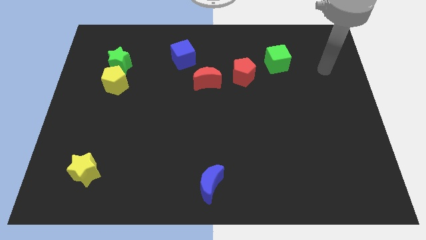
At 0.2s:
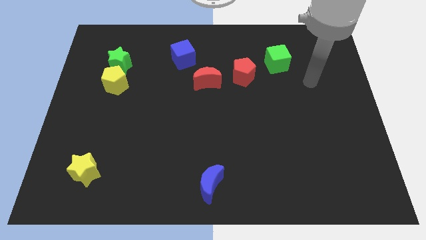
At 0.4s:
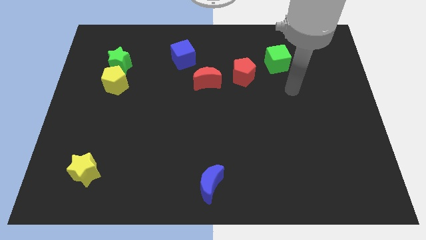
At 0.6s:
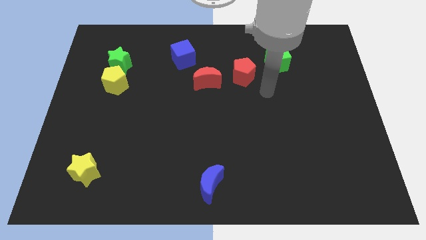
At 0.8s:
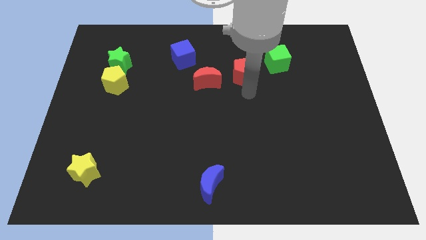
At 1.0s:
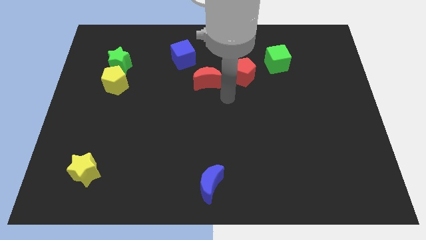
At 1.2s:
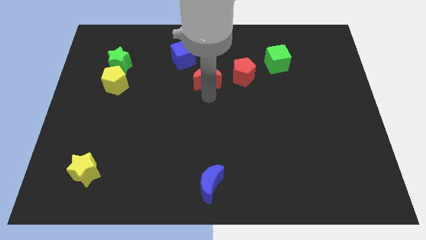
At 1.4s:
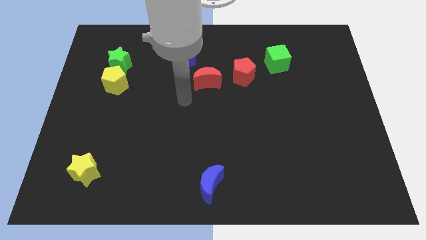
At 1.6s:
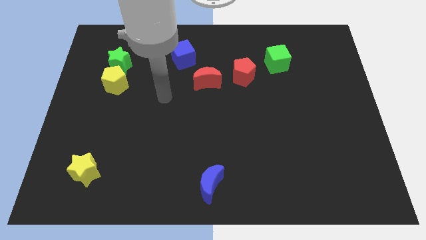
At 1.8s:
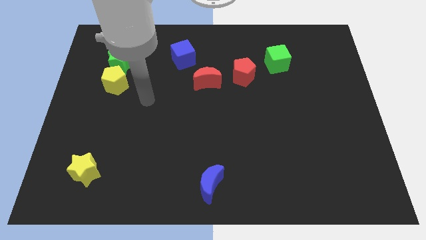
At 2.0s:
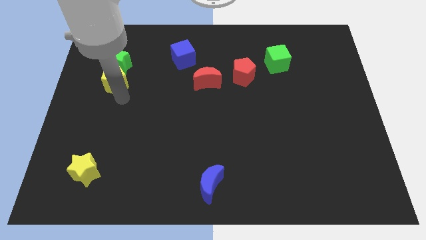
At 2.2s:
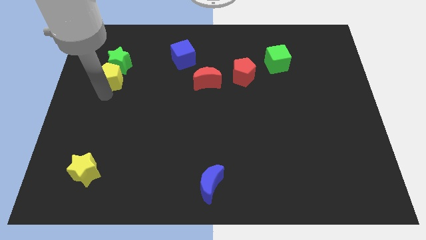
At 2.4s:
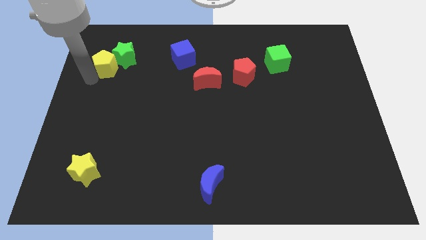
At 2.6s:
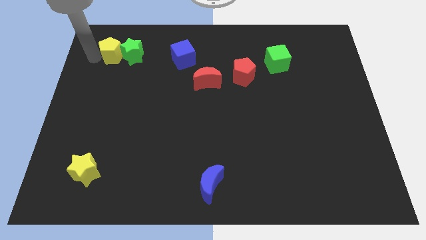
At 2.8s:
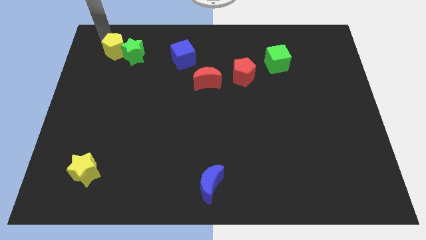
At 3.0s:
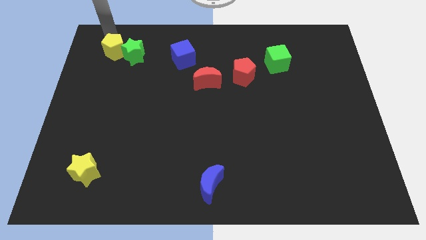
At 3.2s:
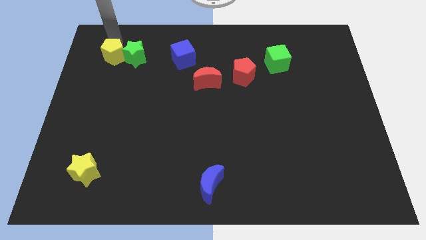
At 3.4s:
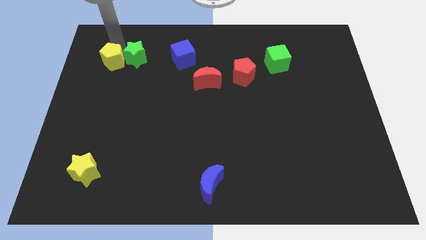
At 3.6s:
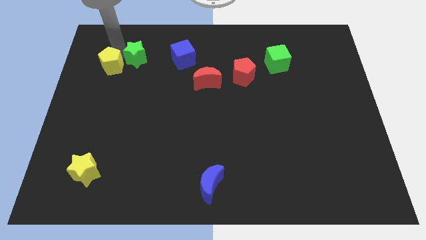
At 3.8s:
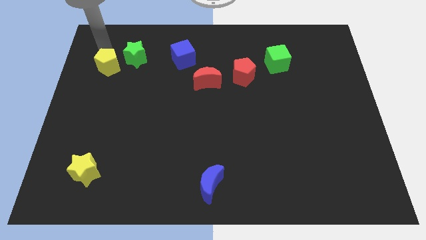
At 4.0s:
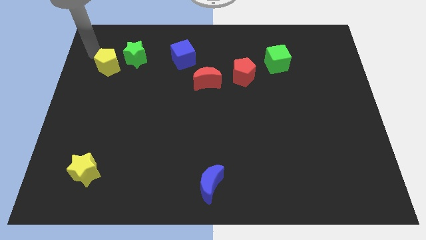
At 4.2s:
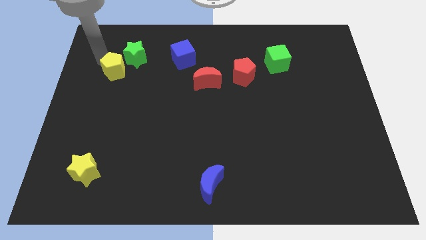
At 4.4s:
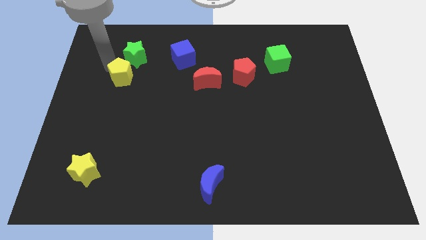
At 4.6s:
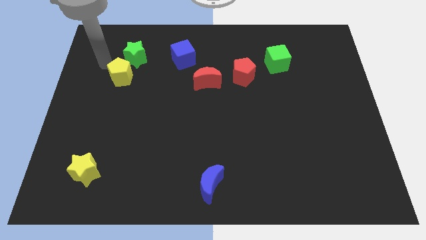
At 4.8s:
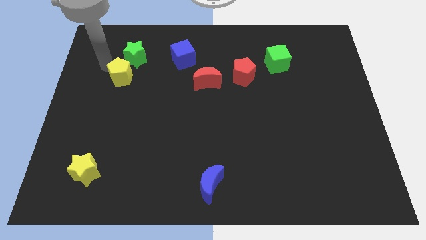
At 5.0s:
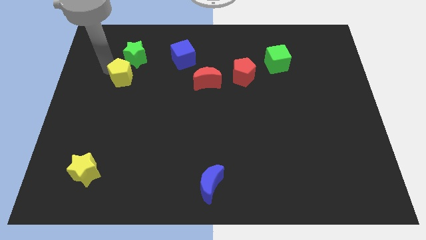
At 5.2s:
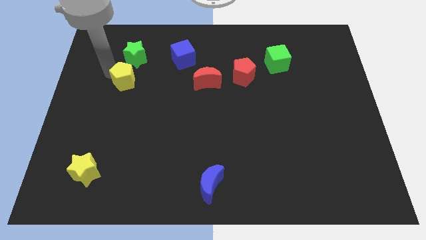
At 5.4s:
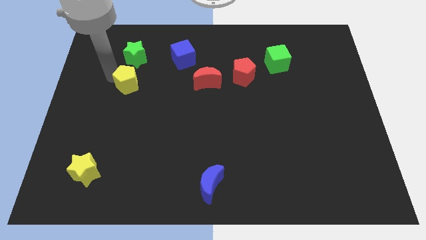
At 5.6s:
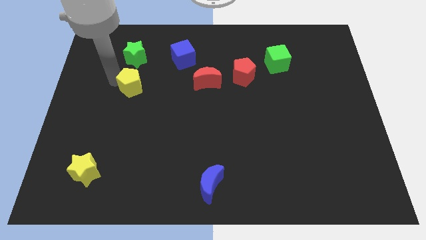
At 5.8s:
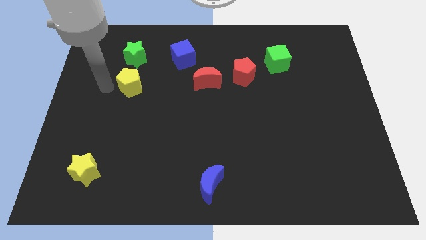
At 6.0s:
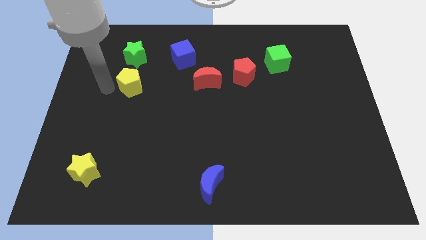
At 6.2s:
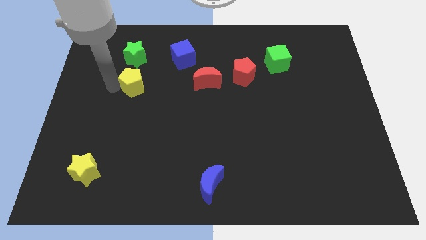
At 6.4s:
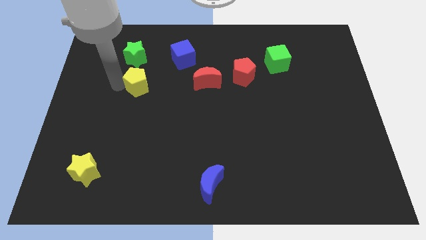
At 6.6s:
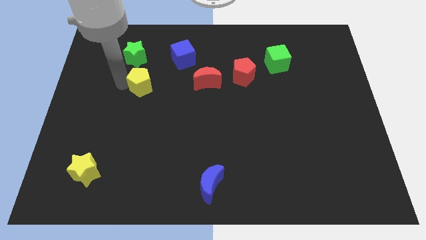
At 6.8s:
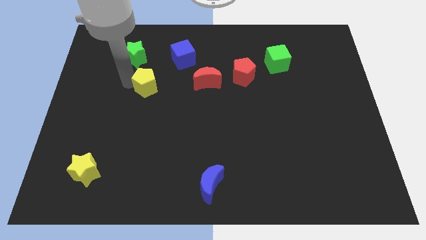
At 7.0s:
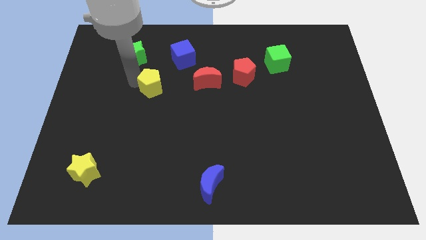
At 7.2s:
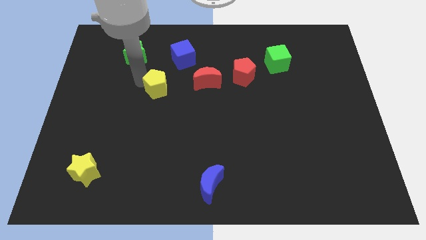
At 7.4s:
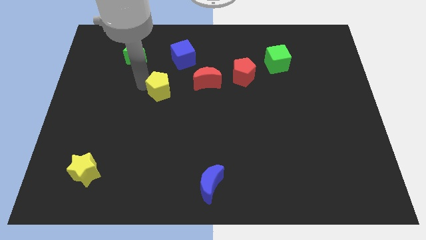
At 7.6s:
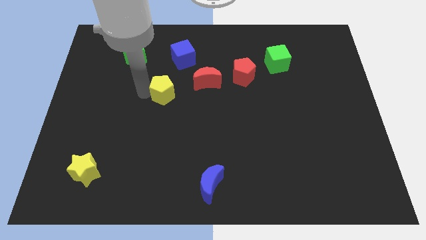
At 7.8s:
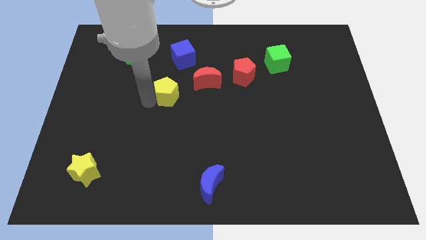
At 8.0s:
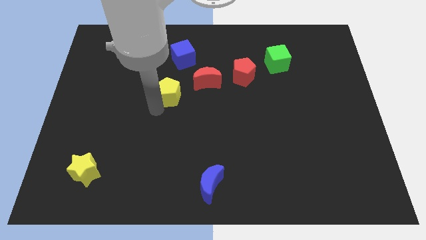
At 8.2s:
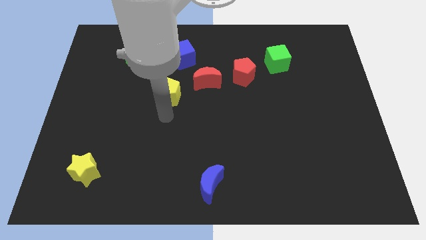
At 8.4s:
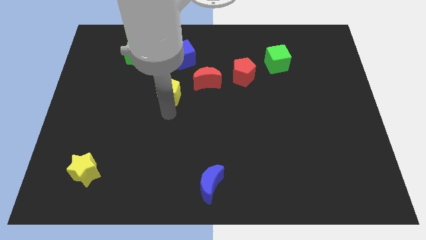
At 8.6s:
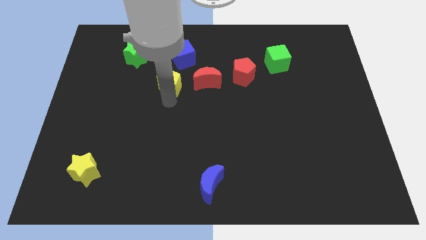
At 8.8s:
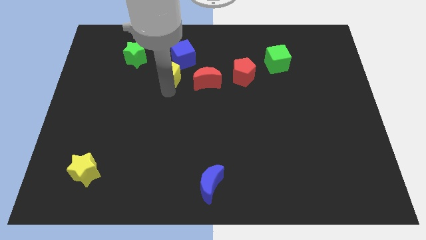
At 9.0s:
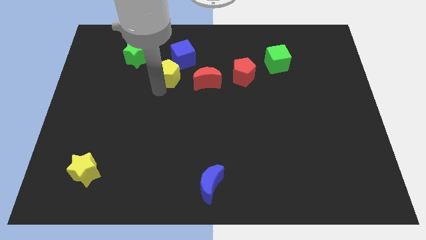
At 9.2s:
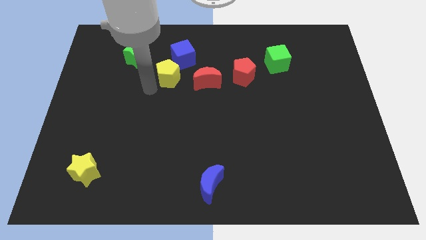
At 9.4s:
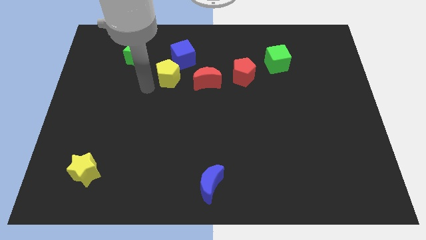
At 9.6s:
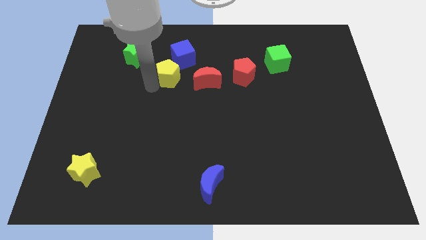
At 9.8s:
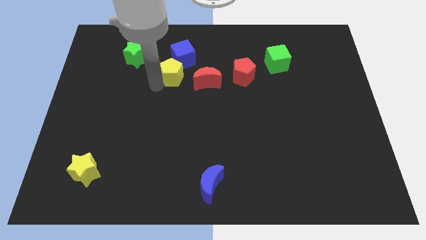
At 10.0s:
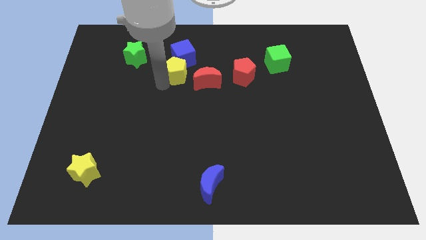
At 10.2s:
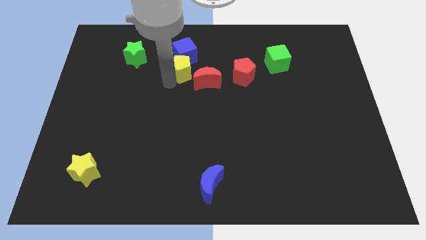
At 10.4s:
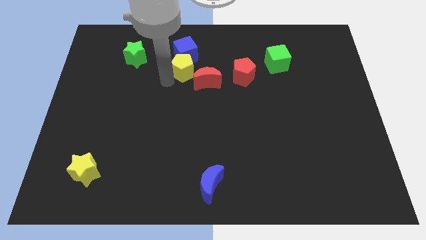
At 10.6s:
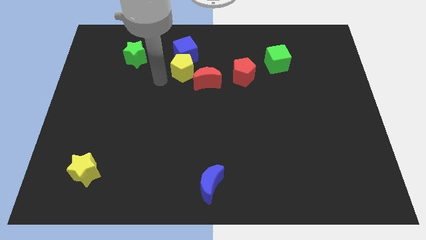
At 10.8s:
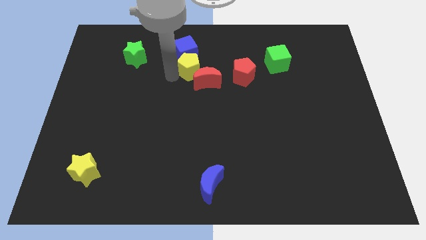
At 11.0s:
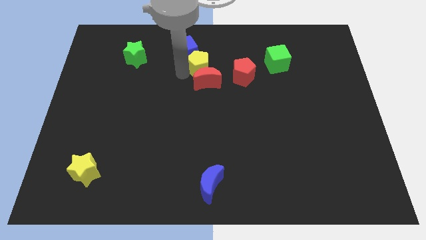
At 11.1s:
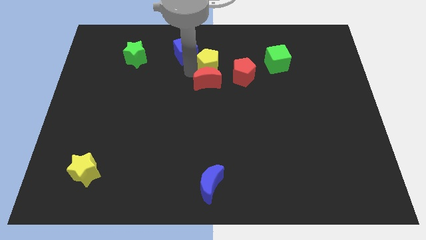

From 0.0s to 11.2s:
slide the yellow pentagon right of the blue cube

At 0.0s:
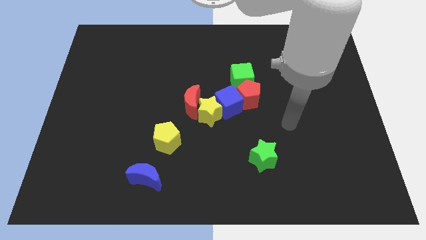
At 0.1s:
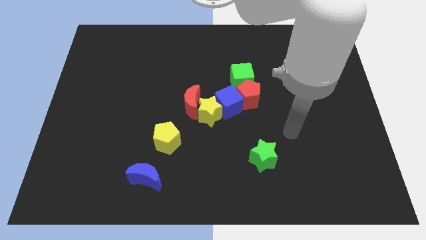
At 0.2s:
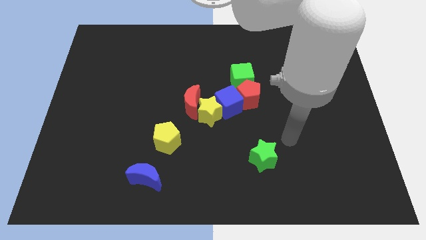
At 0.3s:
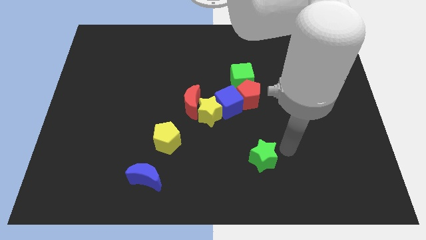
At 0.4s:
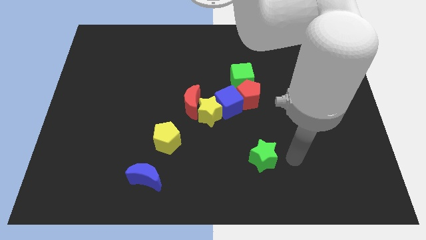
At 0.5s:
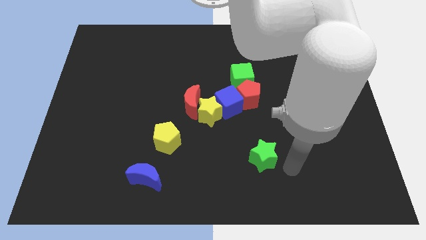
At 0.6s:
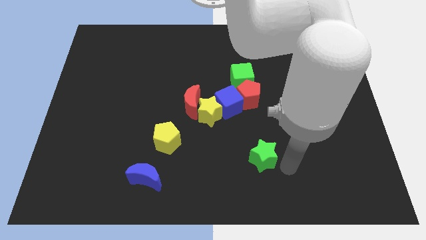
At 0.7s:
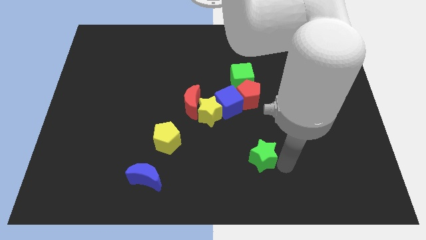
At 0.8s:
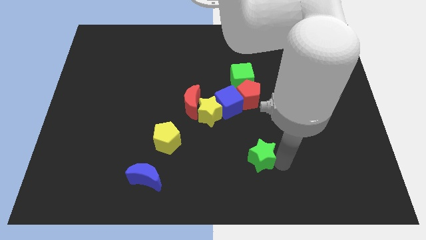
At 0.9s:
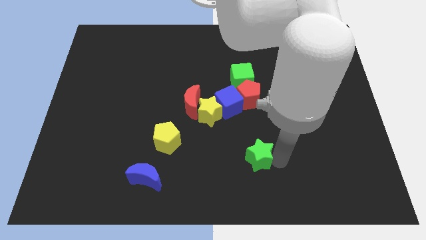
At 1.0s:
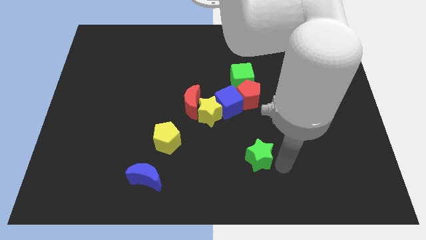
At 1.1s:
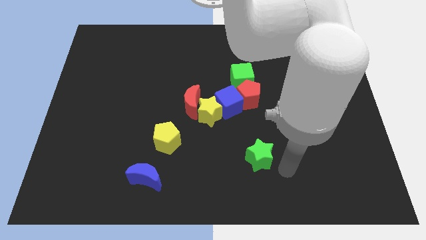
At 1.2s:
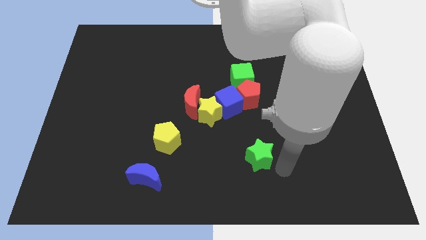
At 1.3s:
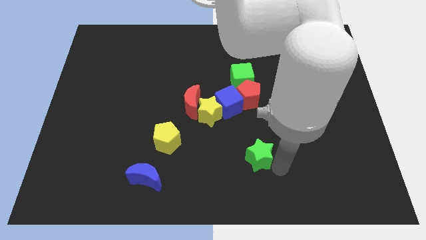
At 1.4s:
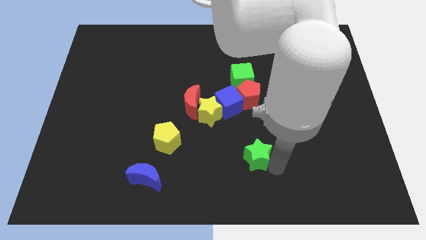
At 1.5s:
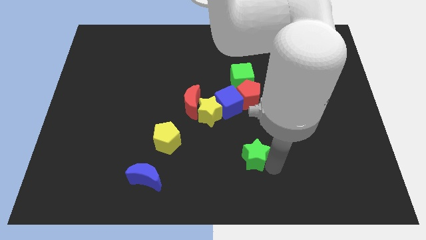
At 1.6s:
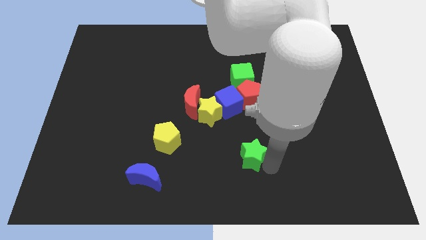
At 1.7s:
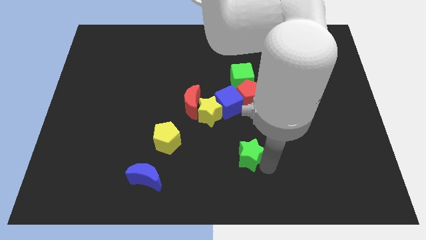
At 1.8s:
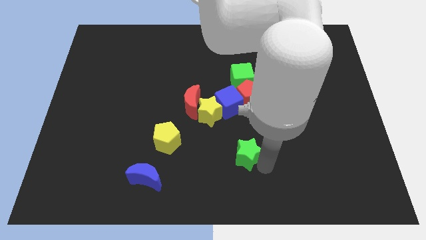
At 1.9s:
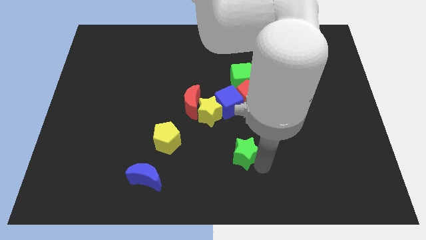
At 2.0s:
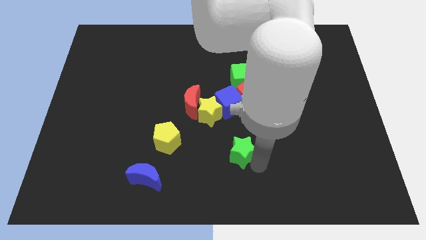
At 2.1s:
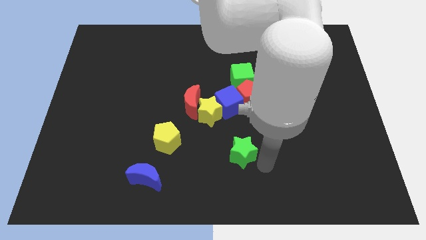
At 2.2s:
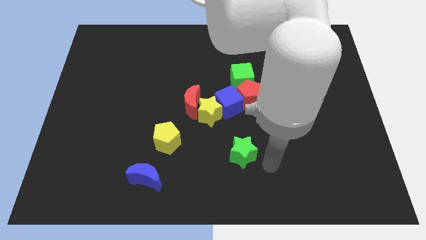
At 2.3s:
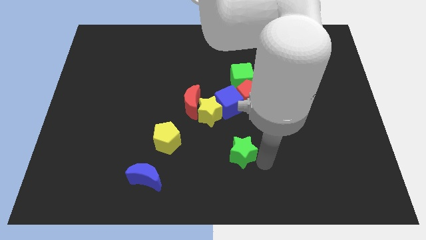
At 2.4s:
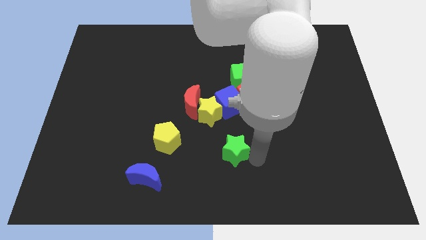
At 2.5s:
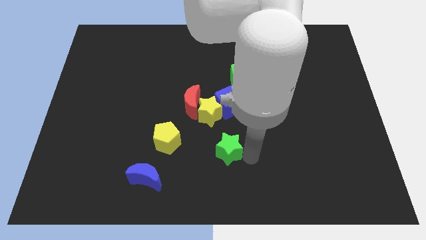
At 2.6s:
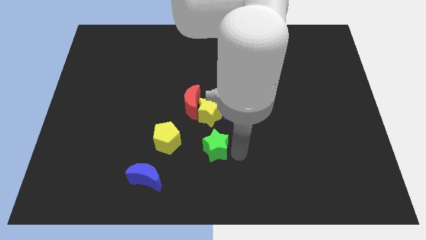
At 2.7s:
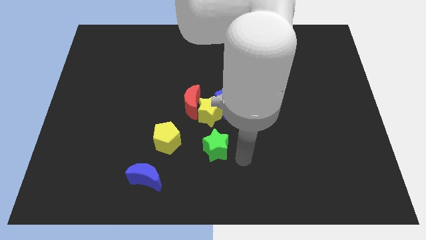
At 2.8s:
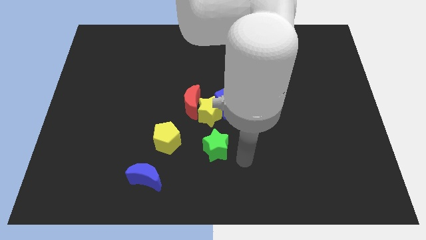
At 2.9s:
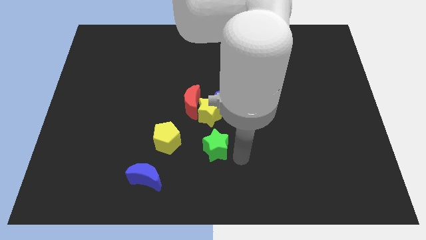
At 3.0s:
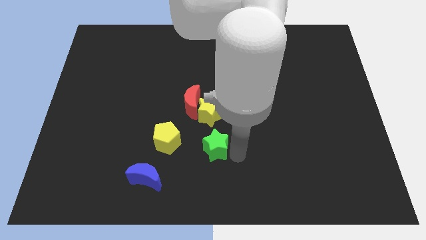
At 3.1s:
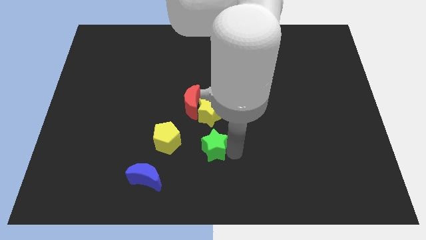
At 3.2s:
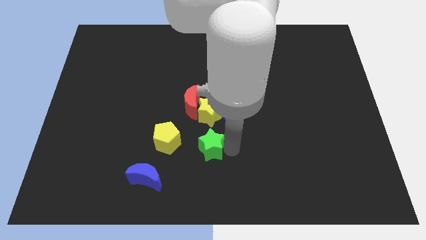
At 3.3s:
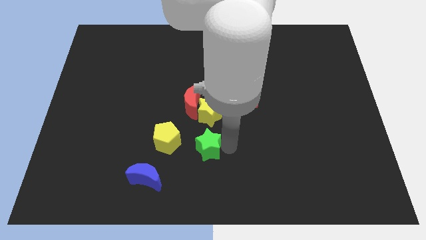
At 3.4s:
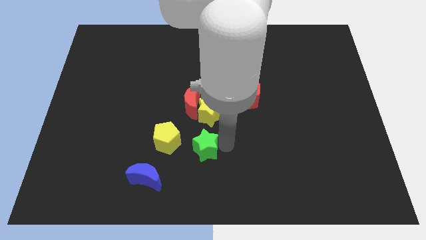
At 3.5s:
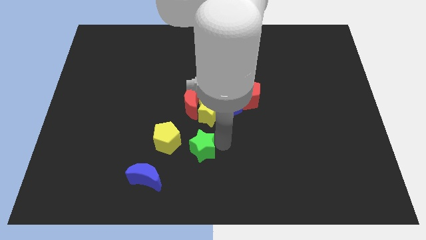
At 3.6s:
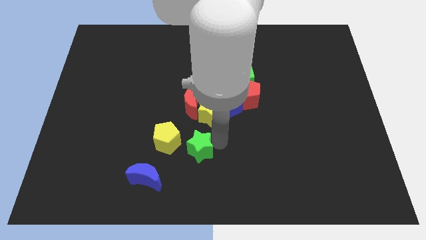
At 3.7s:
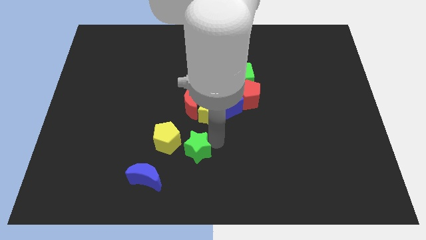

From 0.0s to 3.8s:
slide the green star diagonally down and to the left of the yellow star
